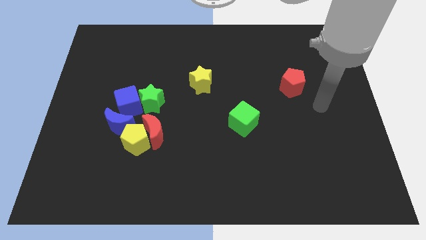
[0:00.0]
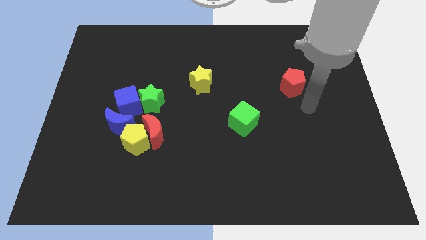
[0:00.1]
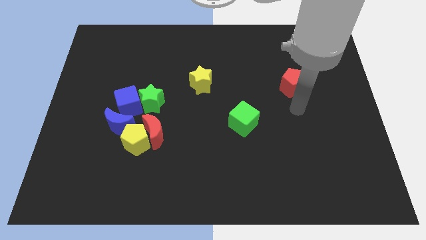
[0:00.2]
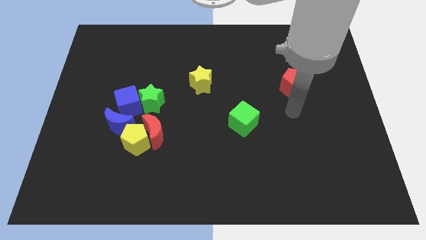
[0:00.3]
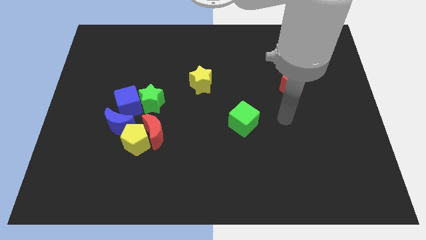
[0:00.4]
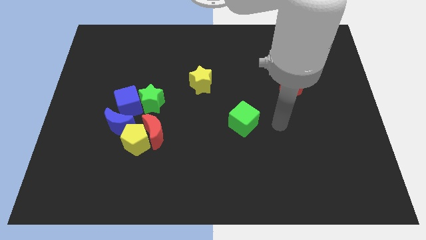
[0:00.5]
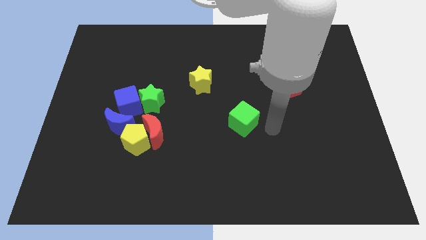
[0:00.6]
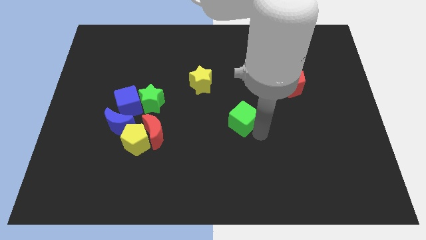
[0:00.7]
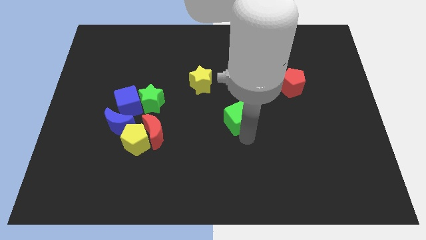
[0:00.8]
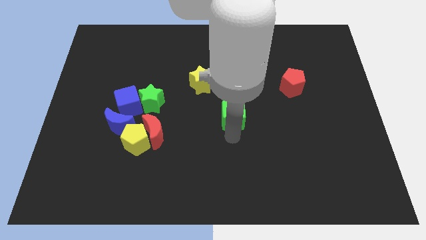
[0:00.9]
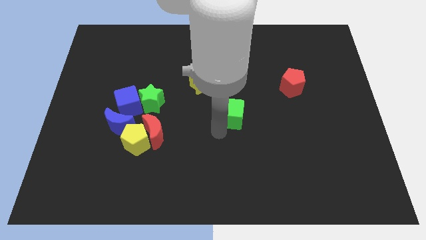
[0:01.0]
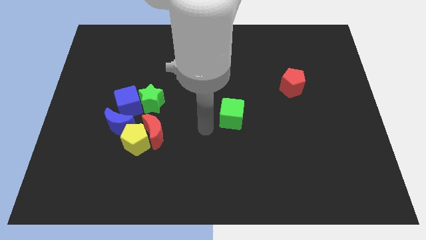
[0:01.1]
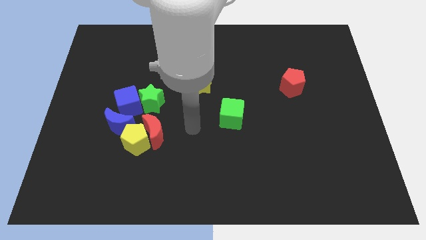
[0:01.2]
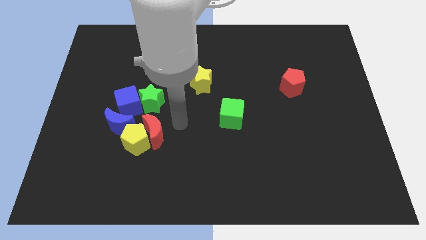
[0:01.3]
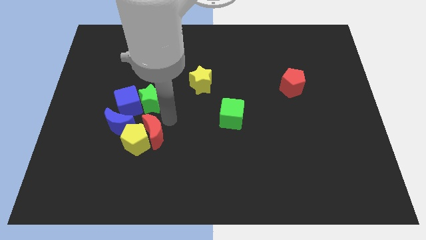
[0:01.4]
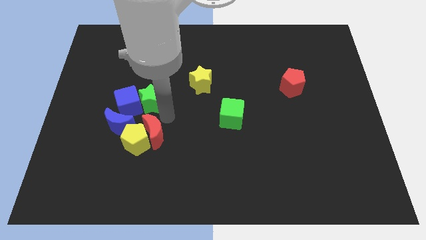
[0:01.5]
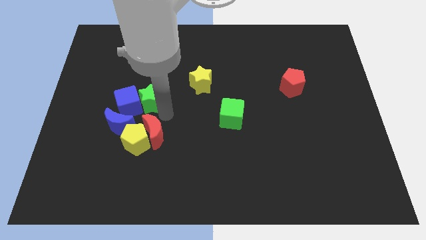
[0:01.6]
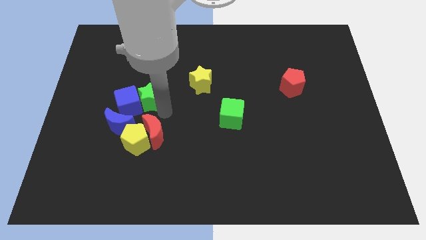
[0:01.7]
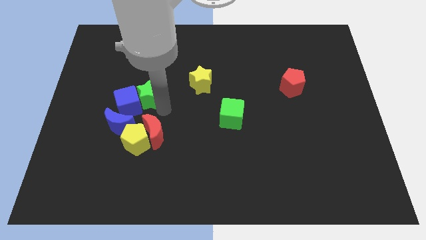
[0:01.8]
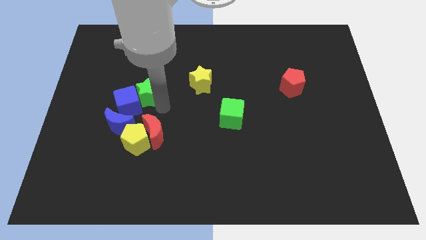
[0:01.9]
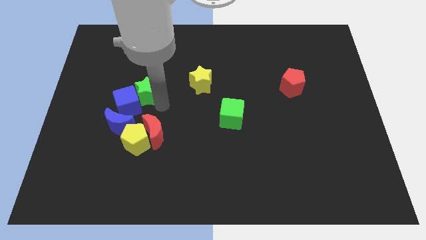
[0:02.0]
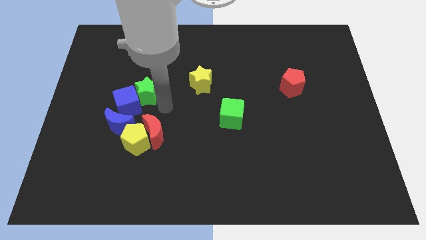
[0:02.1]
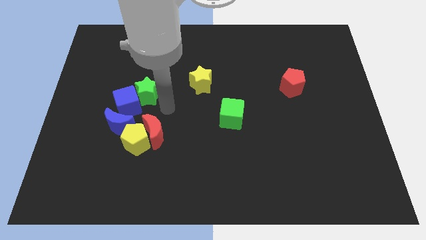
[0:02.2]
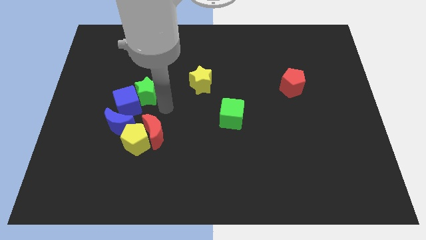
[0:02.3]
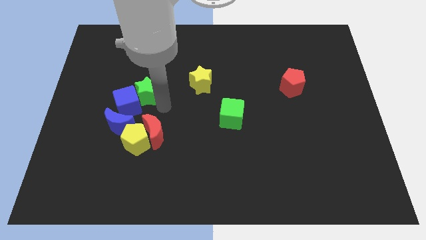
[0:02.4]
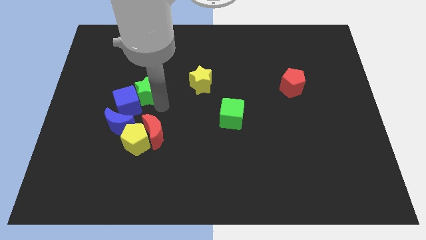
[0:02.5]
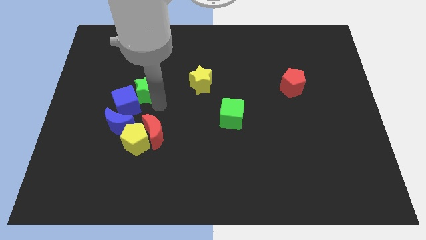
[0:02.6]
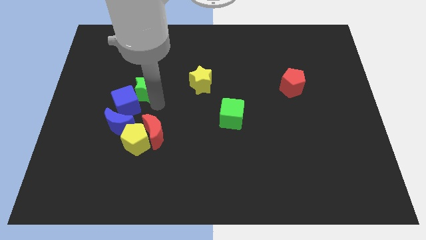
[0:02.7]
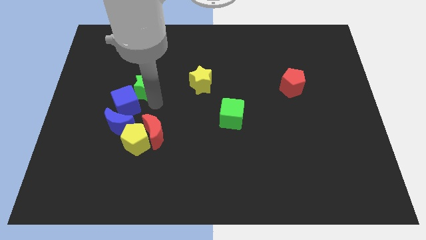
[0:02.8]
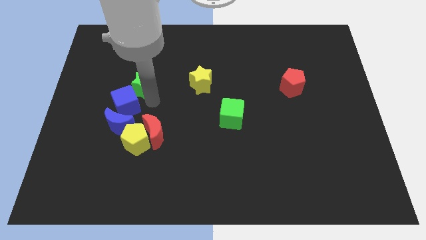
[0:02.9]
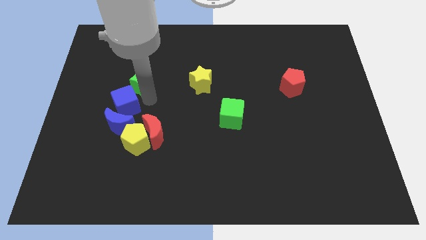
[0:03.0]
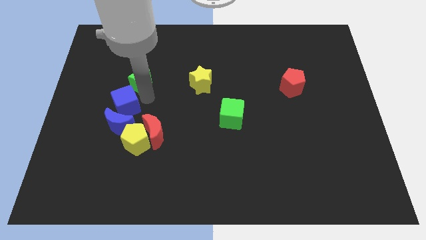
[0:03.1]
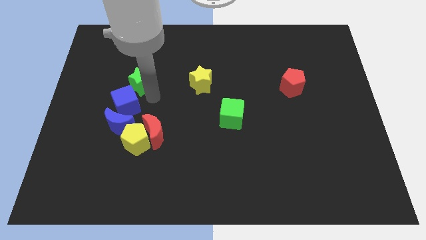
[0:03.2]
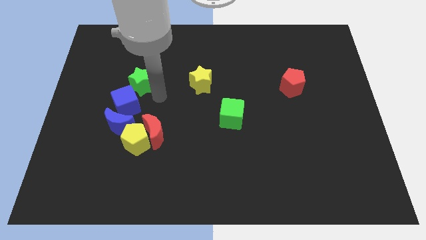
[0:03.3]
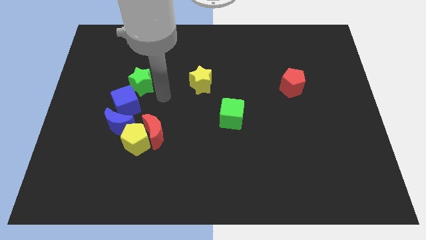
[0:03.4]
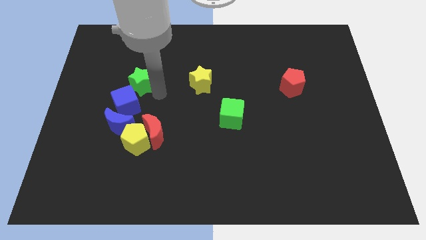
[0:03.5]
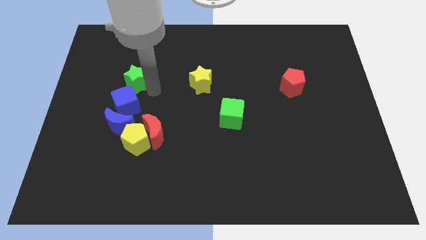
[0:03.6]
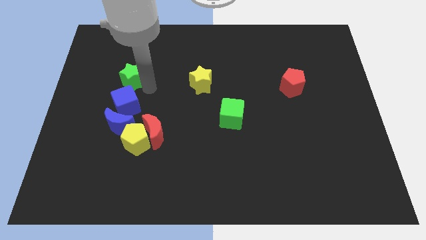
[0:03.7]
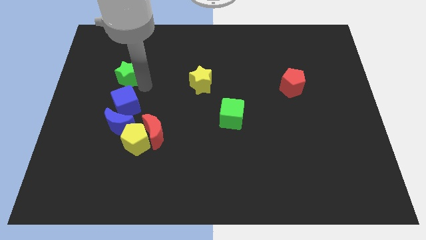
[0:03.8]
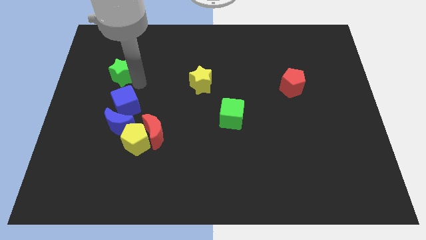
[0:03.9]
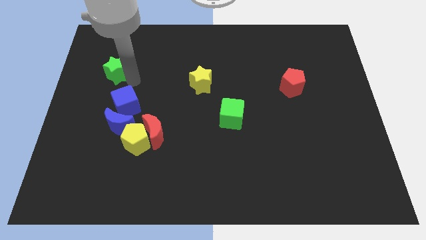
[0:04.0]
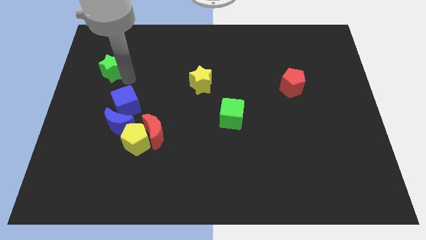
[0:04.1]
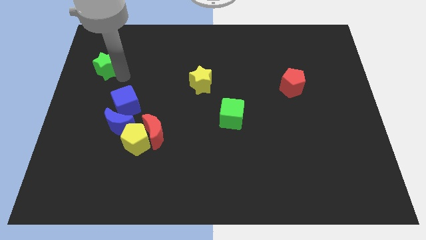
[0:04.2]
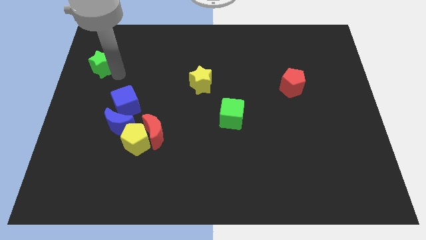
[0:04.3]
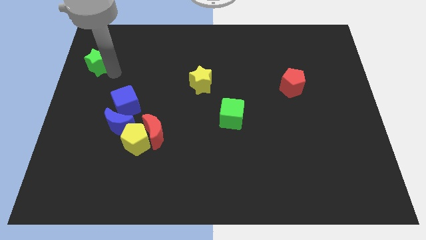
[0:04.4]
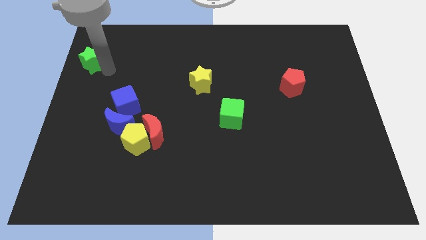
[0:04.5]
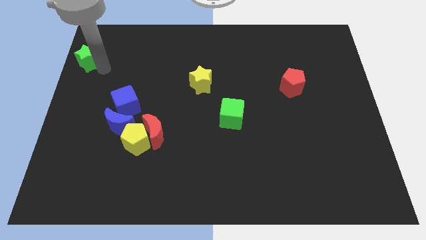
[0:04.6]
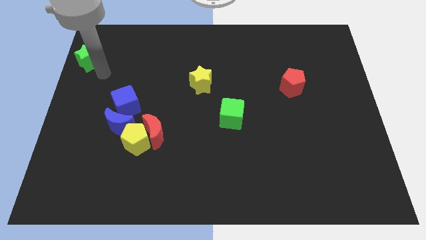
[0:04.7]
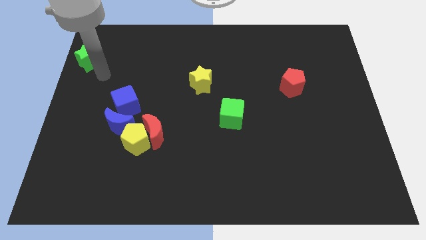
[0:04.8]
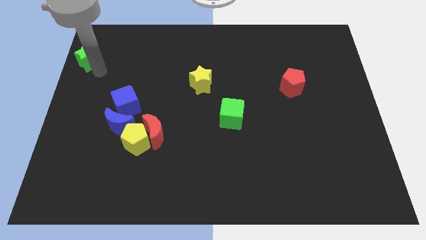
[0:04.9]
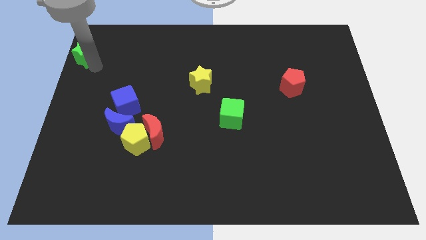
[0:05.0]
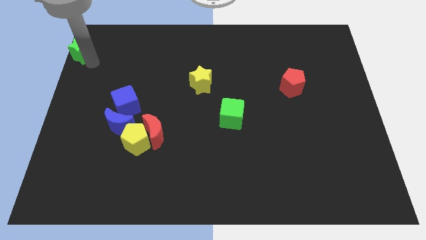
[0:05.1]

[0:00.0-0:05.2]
put the green star to the top left of the board

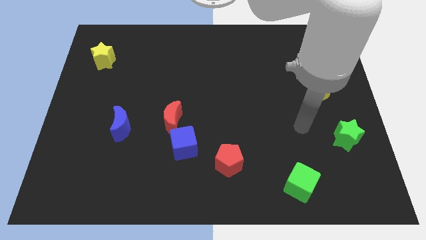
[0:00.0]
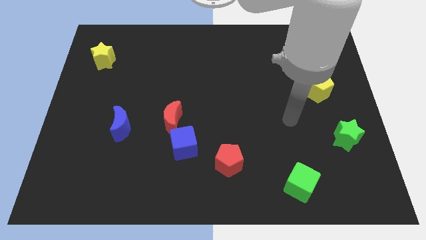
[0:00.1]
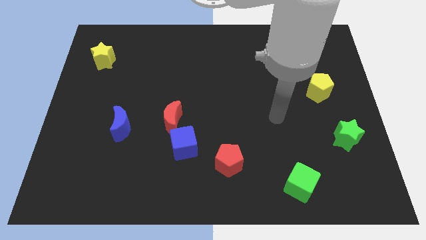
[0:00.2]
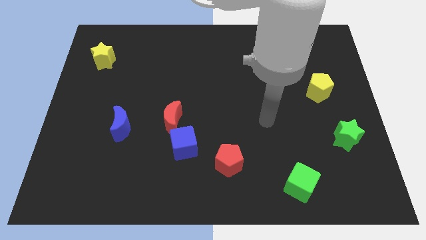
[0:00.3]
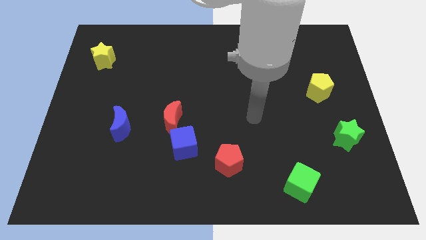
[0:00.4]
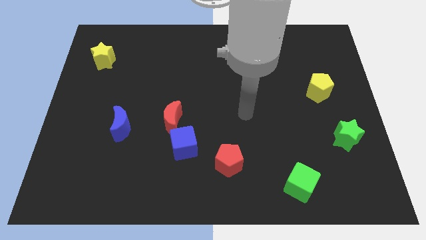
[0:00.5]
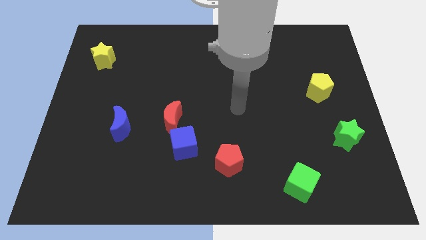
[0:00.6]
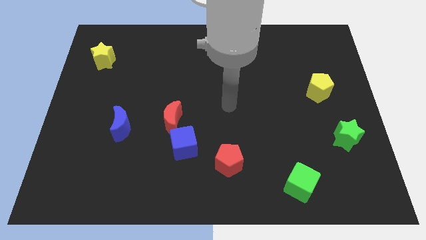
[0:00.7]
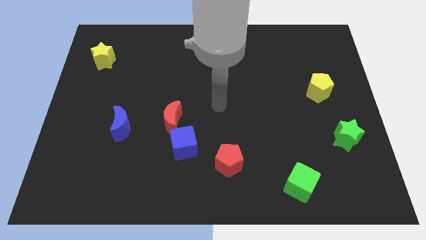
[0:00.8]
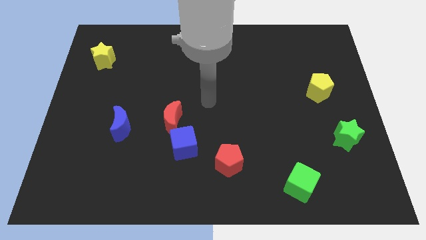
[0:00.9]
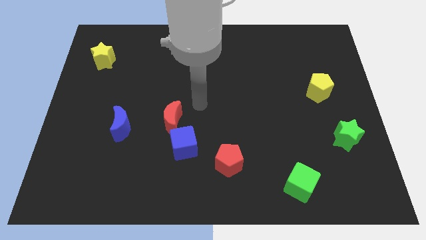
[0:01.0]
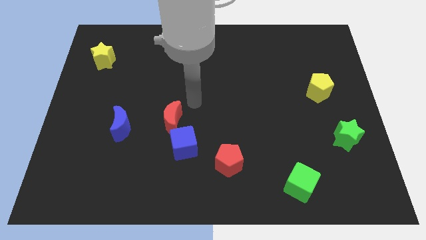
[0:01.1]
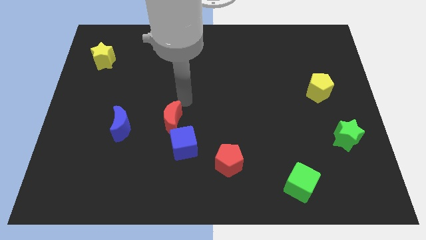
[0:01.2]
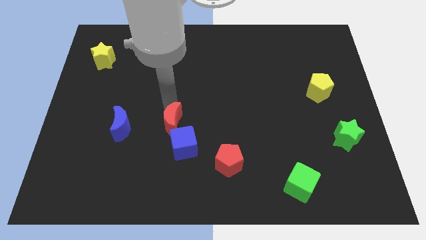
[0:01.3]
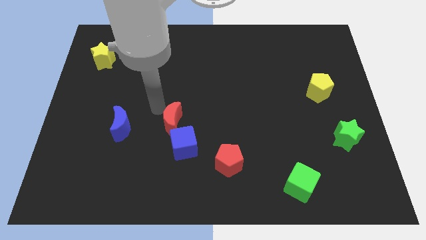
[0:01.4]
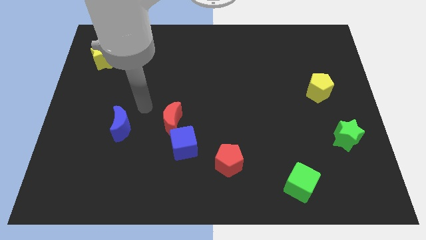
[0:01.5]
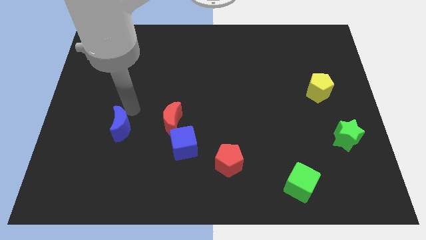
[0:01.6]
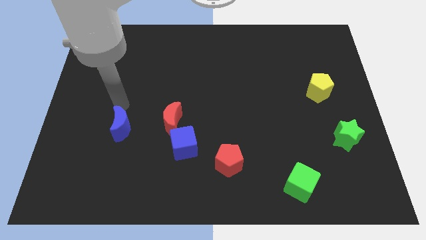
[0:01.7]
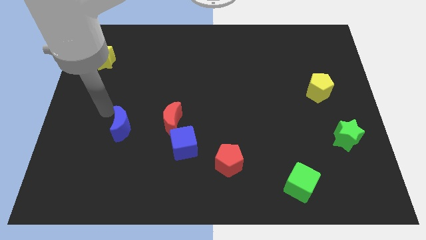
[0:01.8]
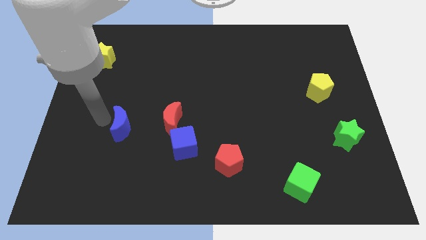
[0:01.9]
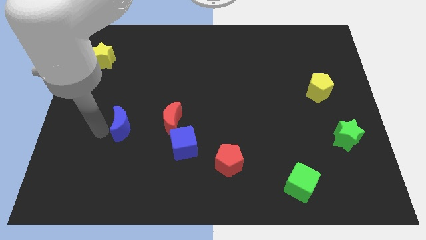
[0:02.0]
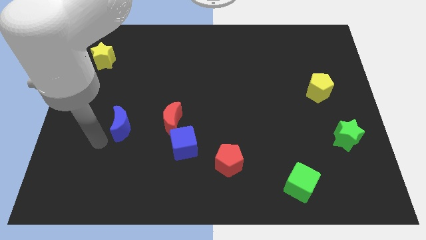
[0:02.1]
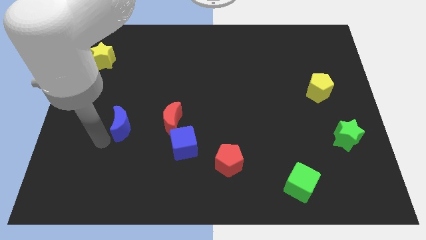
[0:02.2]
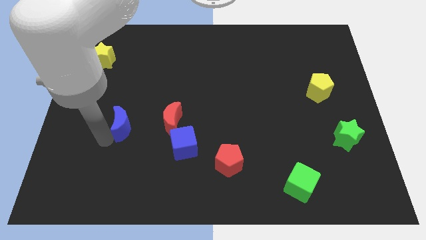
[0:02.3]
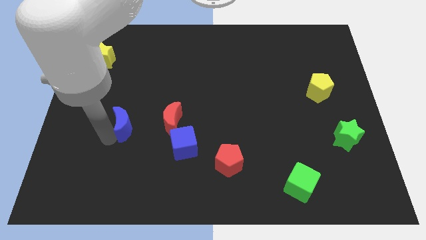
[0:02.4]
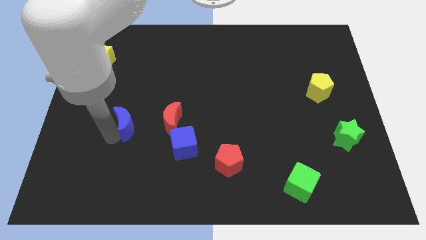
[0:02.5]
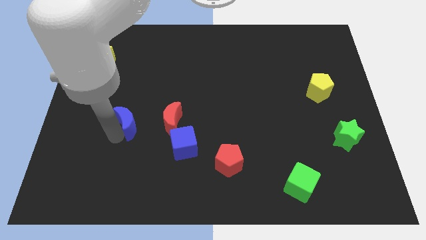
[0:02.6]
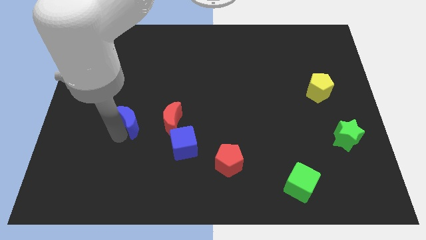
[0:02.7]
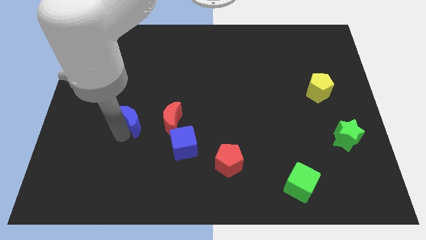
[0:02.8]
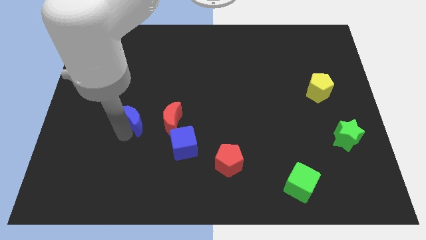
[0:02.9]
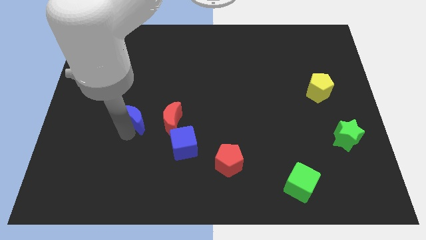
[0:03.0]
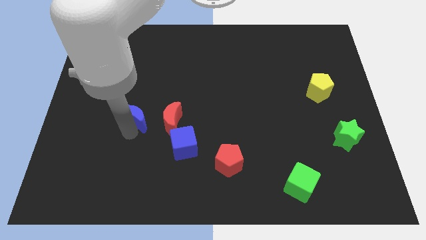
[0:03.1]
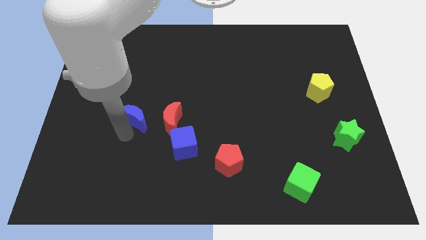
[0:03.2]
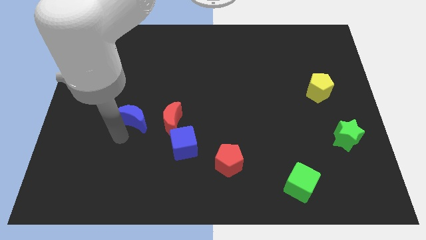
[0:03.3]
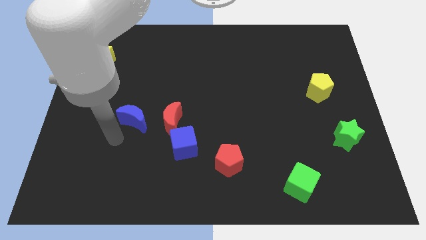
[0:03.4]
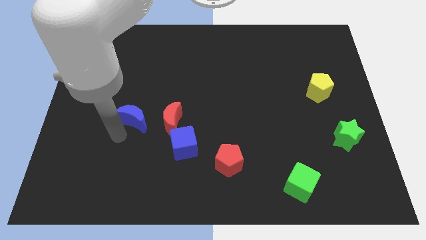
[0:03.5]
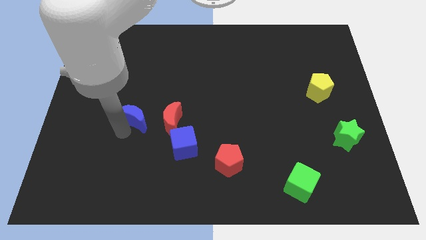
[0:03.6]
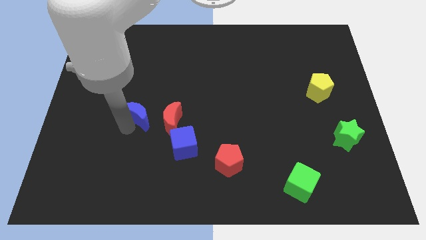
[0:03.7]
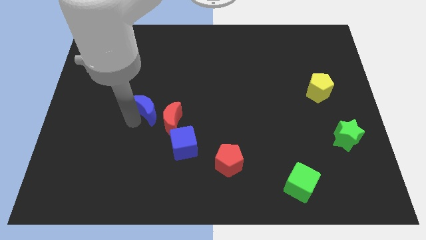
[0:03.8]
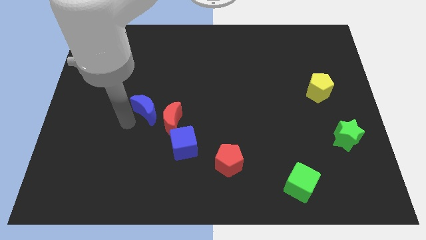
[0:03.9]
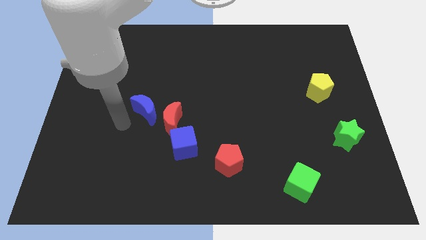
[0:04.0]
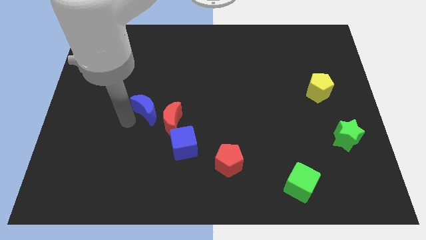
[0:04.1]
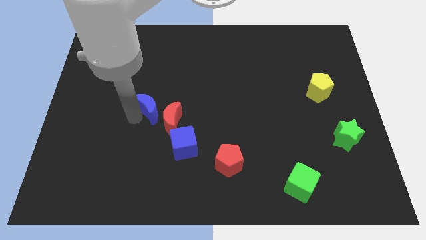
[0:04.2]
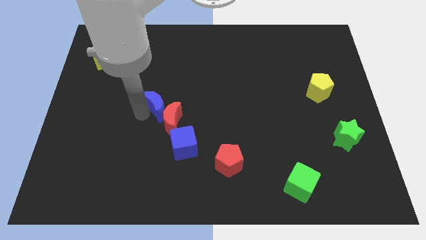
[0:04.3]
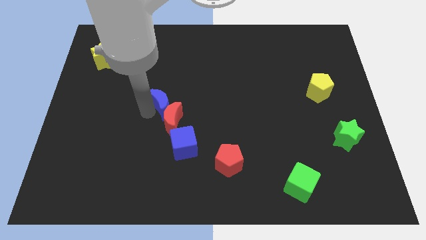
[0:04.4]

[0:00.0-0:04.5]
move the blue moon to the center
